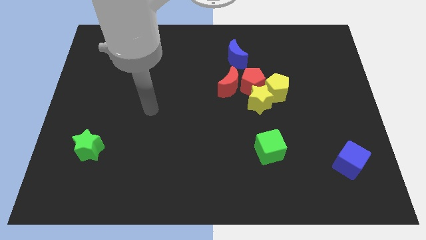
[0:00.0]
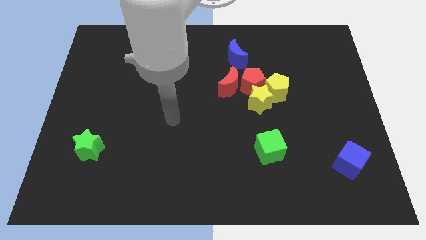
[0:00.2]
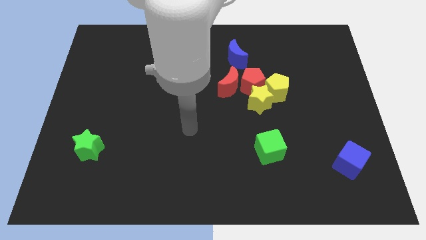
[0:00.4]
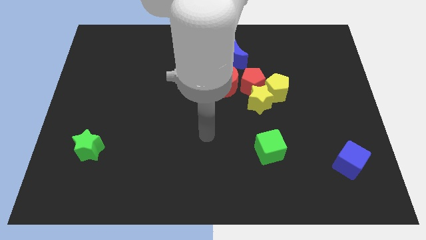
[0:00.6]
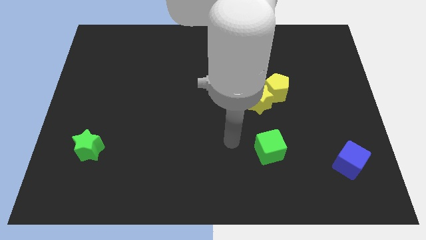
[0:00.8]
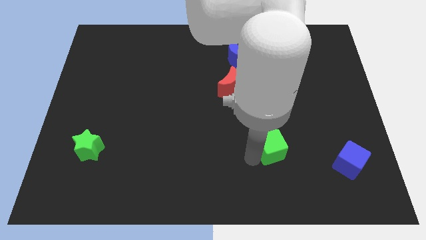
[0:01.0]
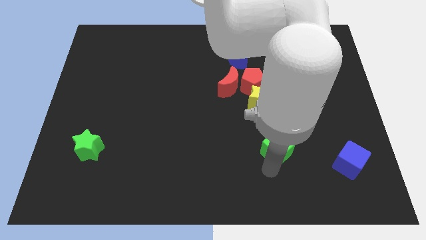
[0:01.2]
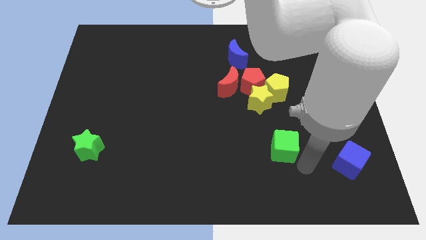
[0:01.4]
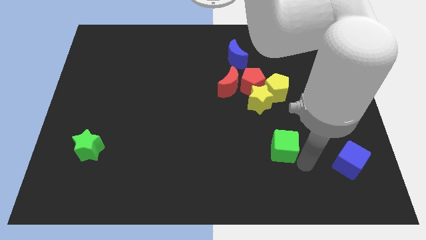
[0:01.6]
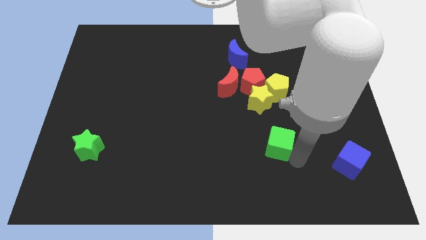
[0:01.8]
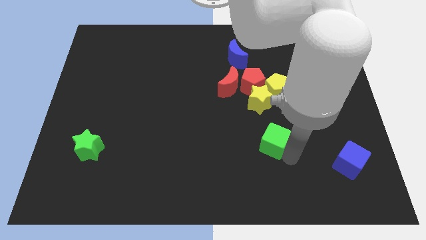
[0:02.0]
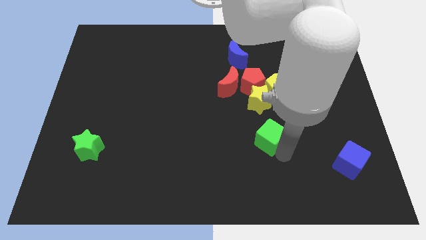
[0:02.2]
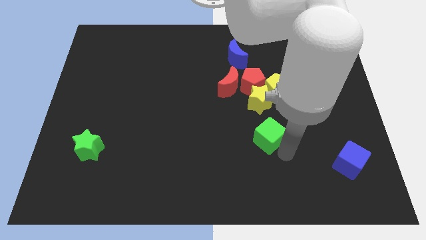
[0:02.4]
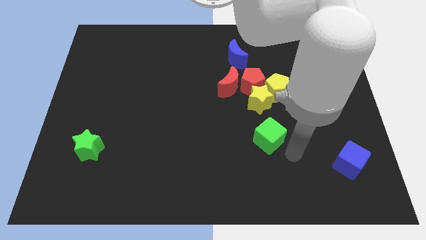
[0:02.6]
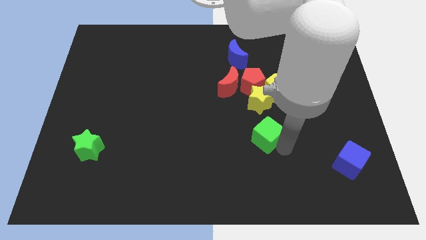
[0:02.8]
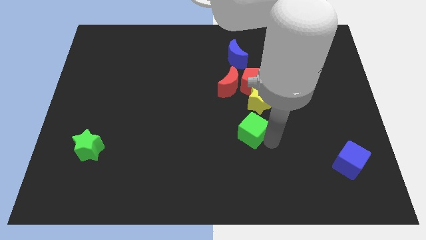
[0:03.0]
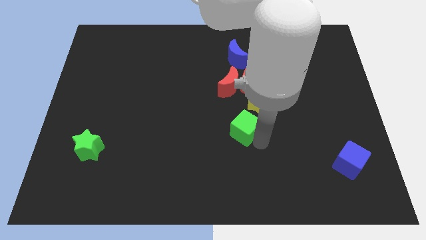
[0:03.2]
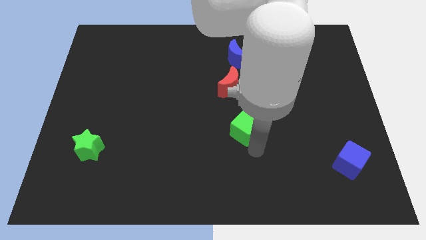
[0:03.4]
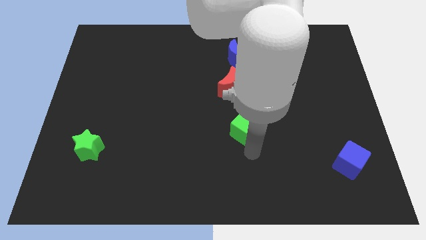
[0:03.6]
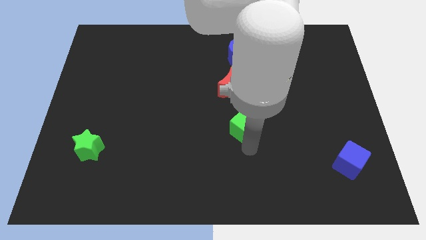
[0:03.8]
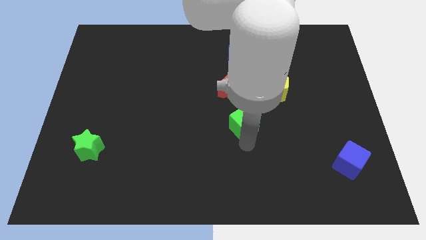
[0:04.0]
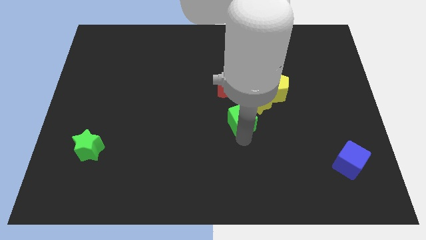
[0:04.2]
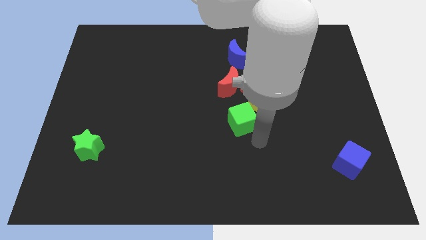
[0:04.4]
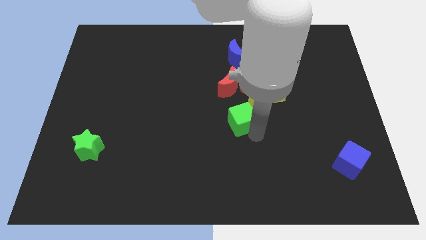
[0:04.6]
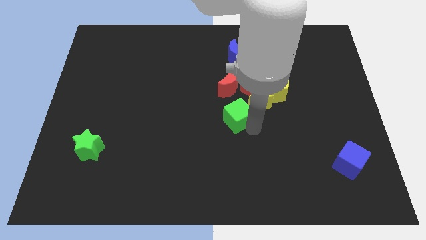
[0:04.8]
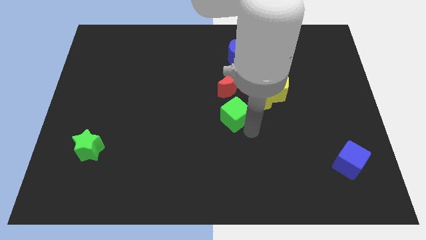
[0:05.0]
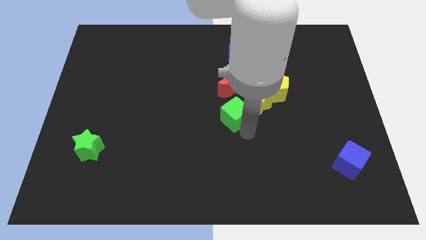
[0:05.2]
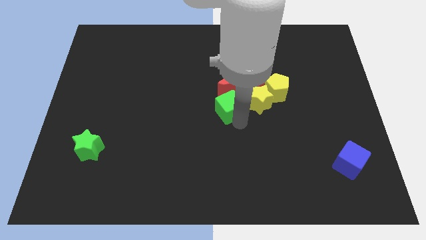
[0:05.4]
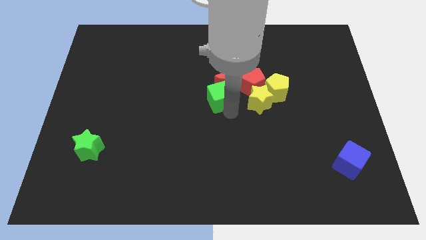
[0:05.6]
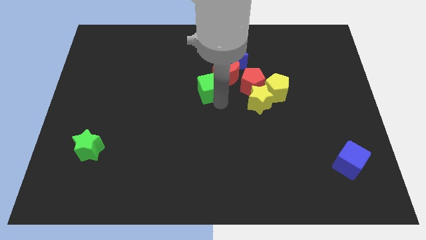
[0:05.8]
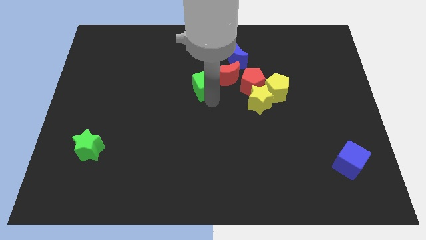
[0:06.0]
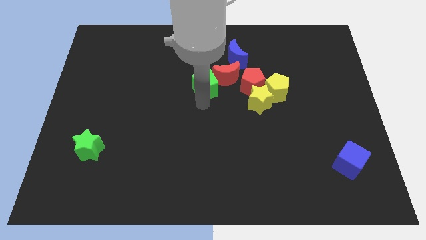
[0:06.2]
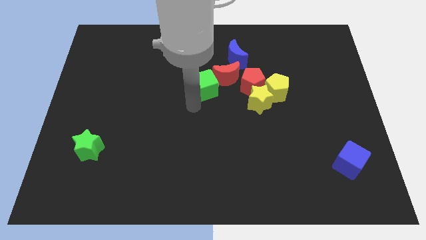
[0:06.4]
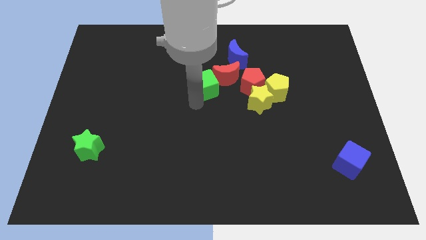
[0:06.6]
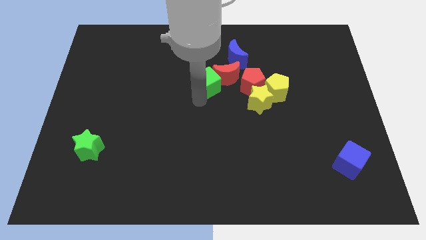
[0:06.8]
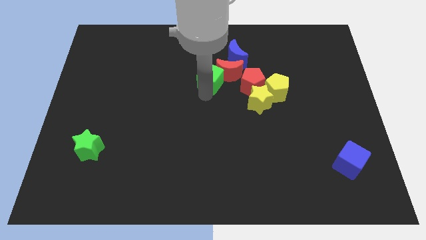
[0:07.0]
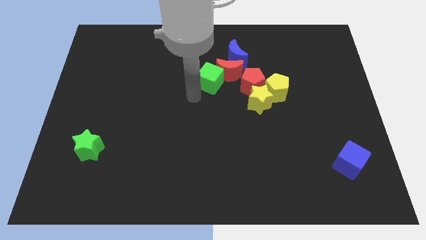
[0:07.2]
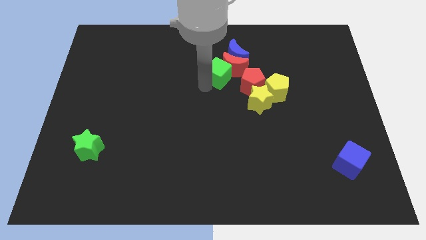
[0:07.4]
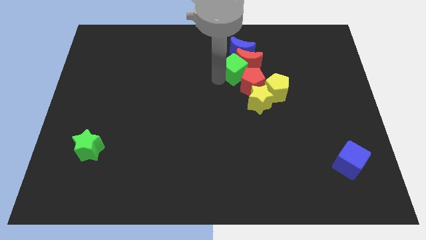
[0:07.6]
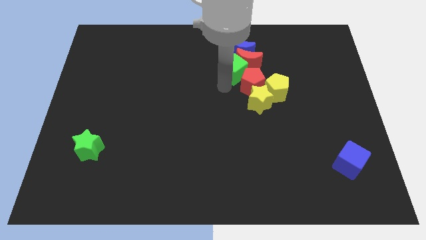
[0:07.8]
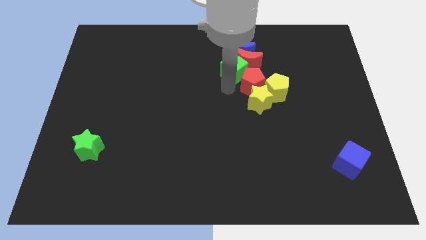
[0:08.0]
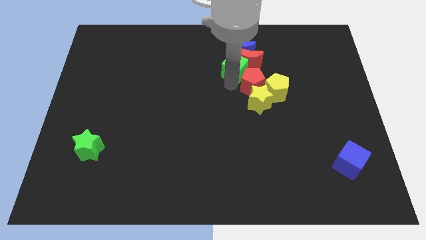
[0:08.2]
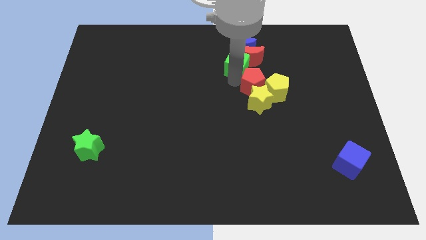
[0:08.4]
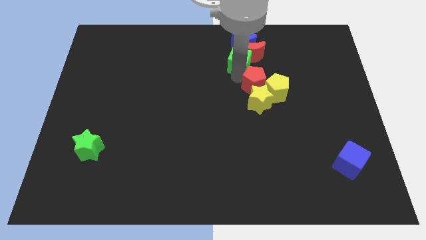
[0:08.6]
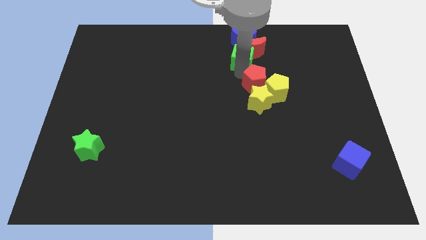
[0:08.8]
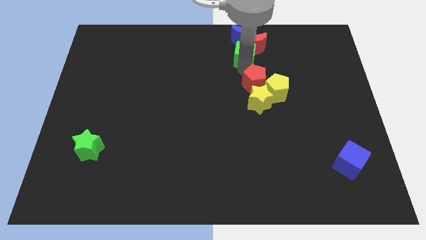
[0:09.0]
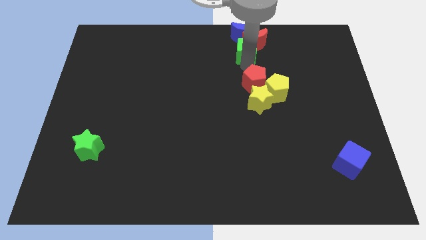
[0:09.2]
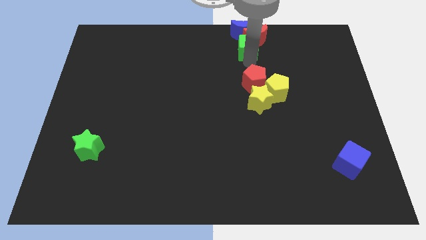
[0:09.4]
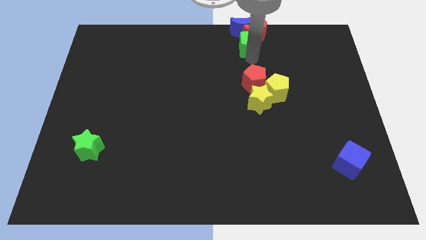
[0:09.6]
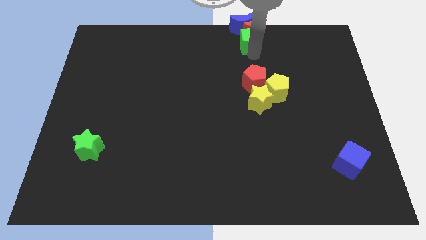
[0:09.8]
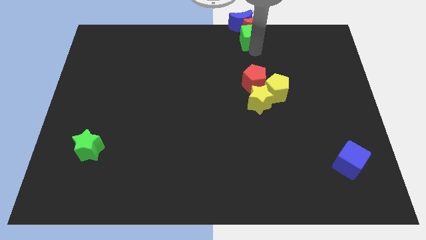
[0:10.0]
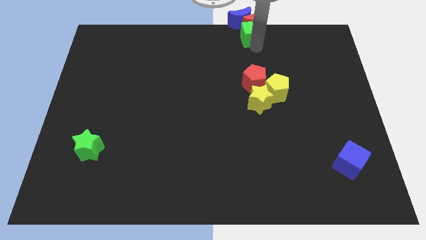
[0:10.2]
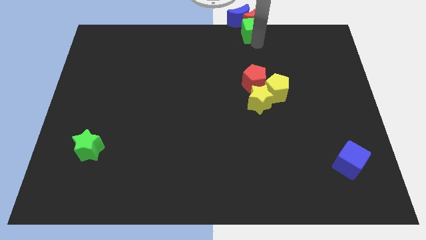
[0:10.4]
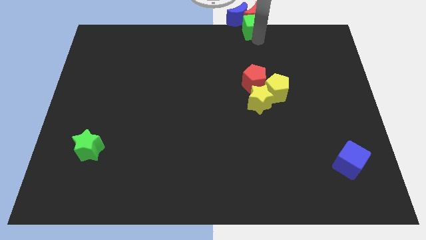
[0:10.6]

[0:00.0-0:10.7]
move the green cube to the blue moon

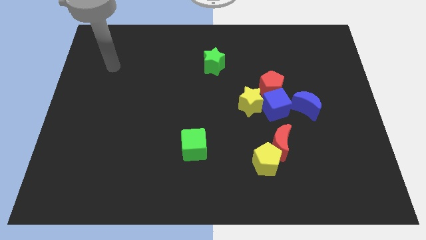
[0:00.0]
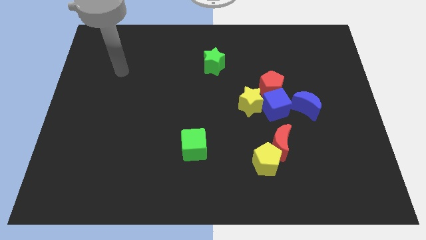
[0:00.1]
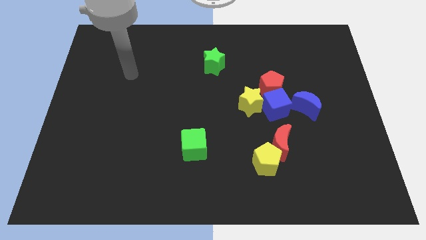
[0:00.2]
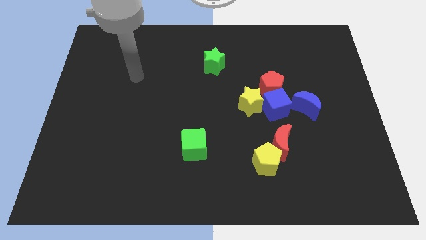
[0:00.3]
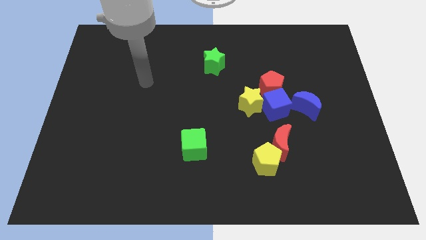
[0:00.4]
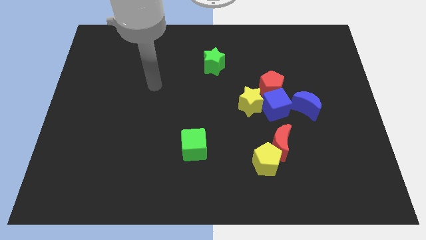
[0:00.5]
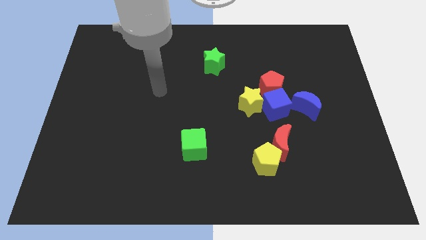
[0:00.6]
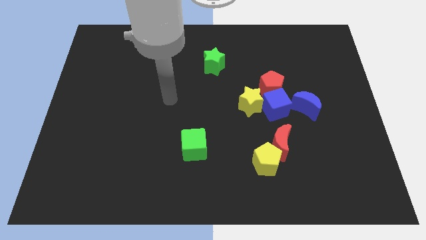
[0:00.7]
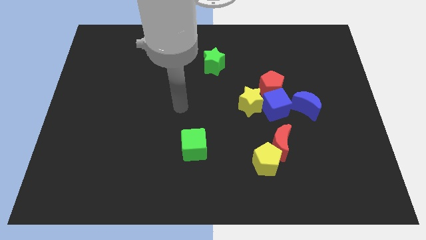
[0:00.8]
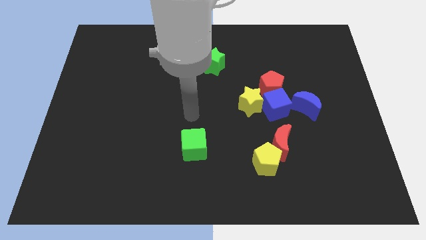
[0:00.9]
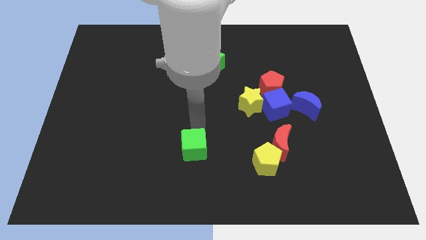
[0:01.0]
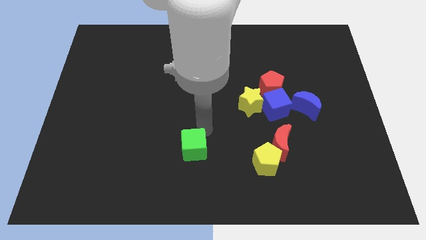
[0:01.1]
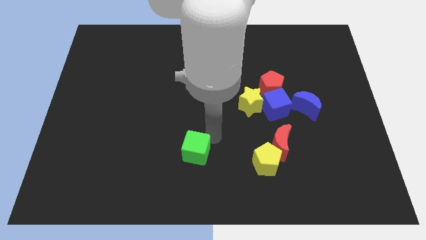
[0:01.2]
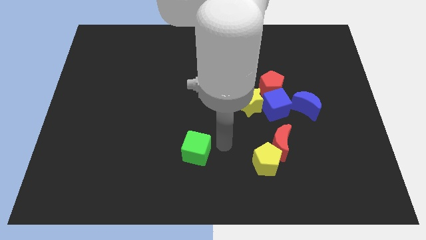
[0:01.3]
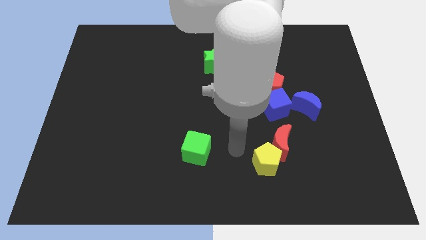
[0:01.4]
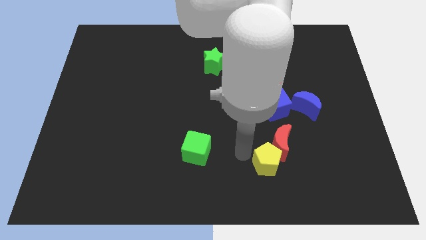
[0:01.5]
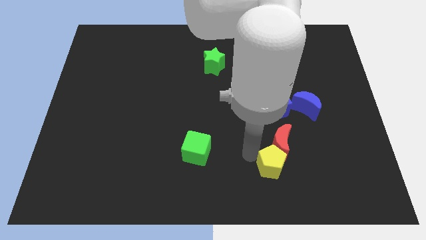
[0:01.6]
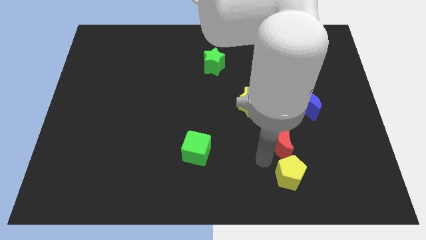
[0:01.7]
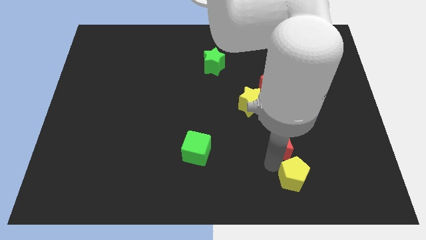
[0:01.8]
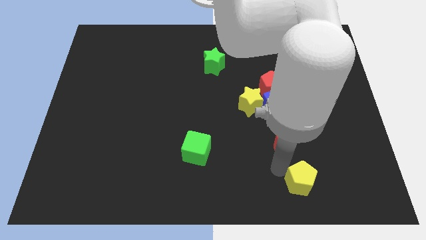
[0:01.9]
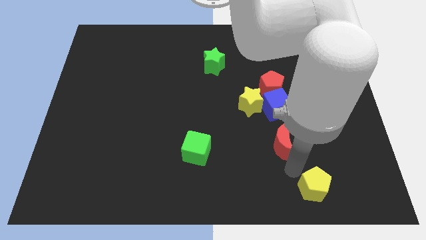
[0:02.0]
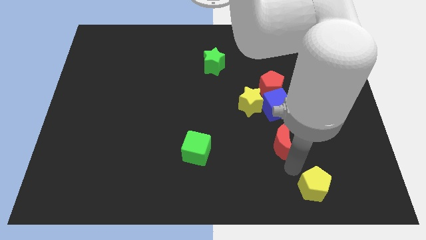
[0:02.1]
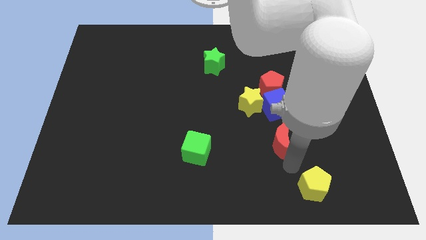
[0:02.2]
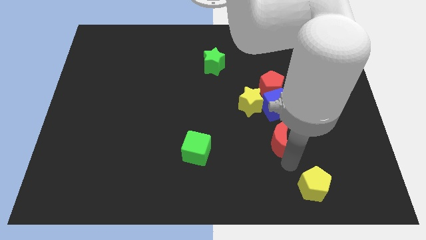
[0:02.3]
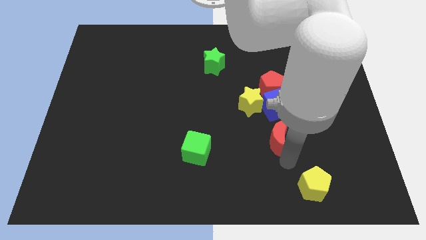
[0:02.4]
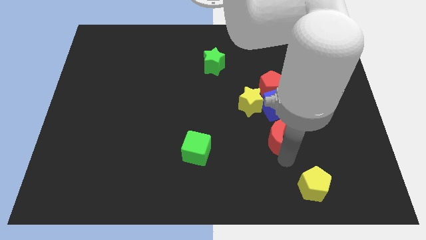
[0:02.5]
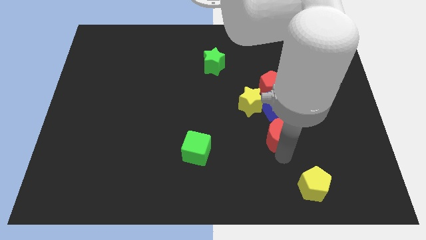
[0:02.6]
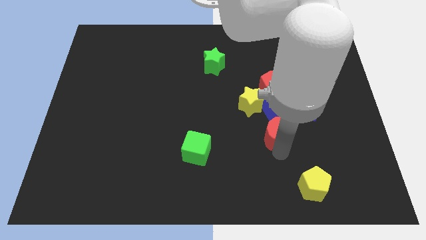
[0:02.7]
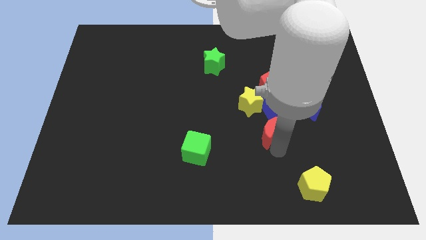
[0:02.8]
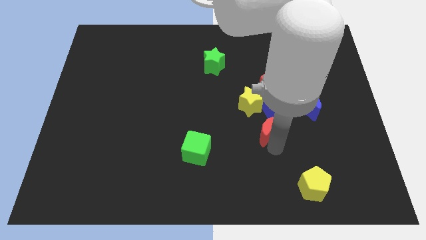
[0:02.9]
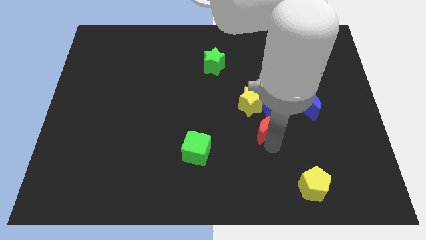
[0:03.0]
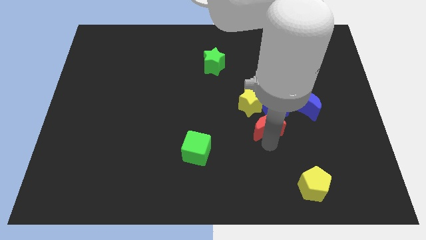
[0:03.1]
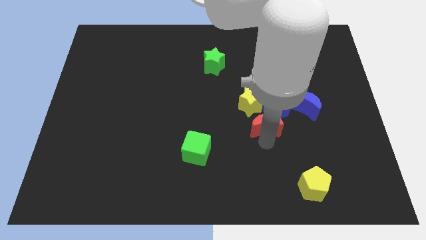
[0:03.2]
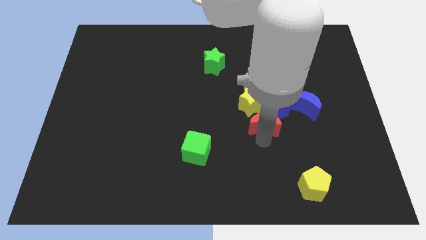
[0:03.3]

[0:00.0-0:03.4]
put the red moon next to the blue cube
